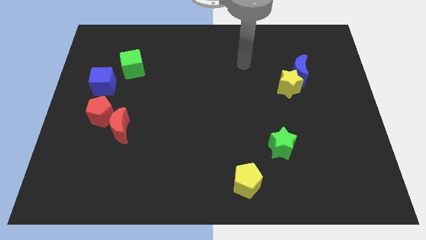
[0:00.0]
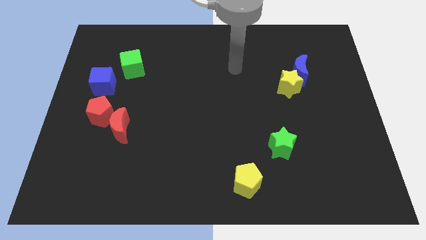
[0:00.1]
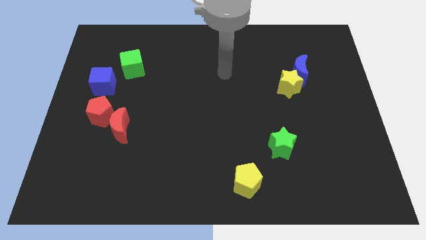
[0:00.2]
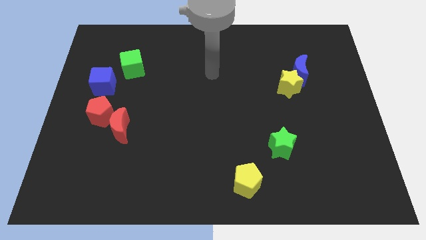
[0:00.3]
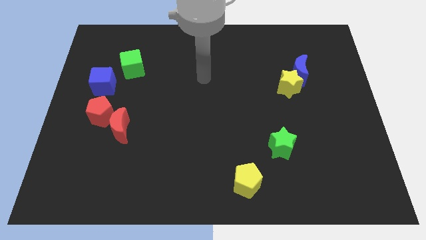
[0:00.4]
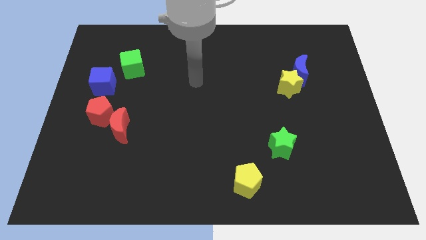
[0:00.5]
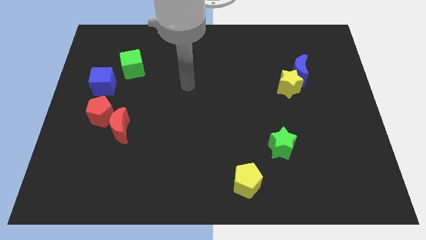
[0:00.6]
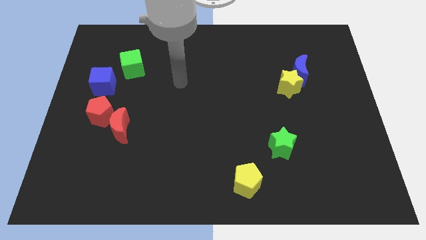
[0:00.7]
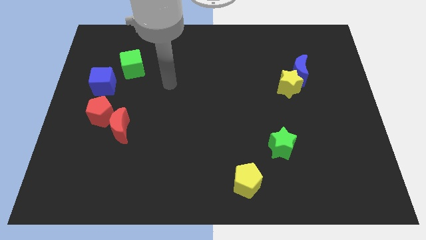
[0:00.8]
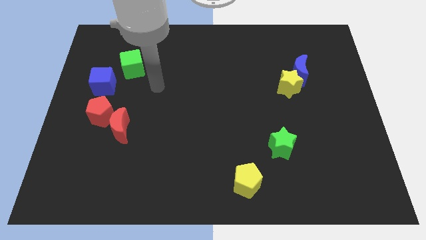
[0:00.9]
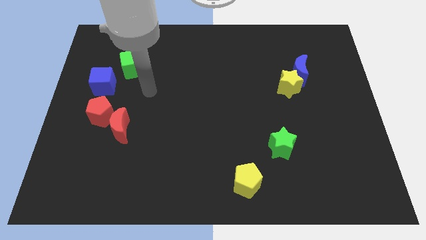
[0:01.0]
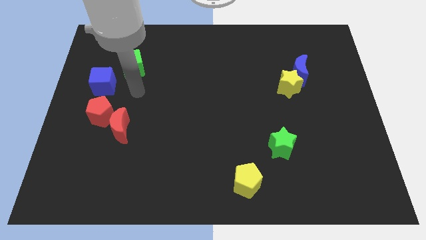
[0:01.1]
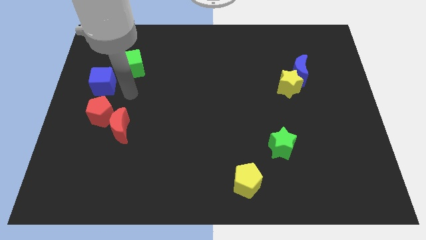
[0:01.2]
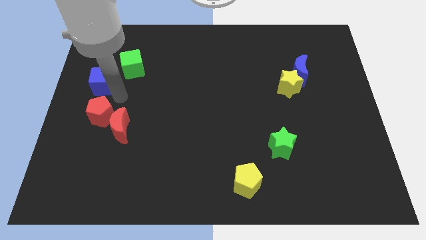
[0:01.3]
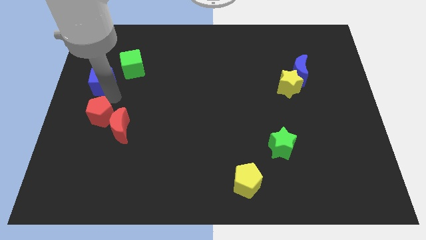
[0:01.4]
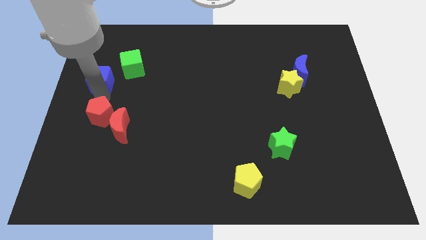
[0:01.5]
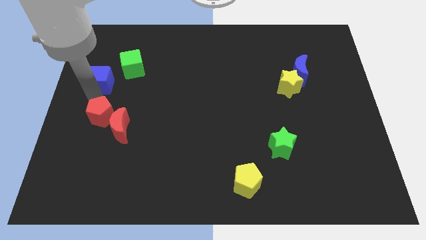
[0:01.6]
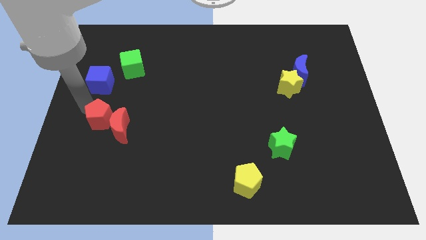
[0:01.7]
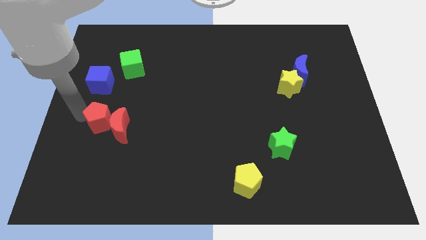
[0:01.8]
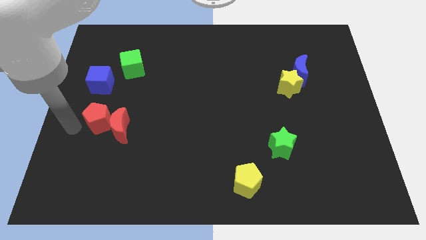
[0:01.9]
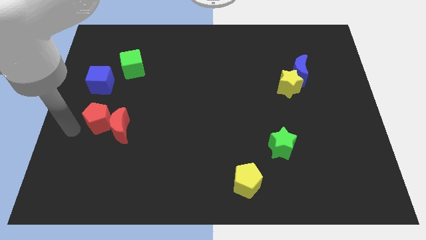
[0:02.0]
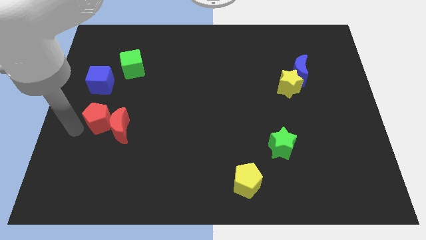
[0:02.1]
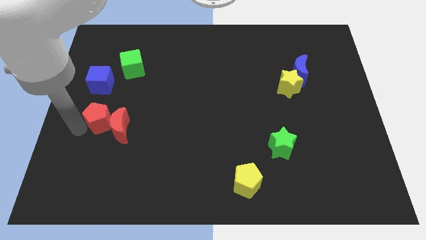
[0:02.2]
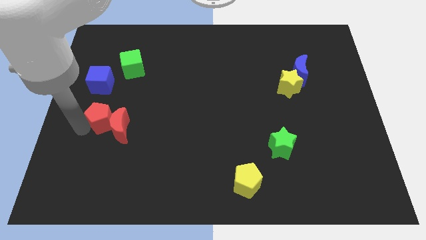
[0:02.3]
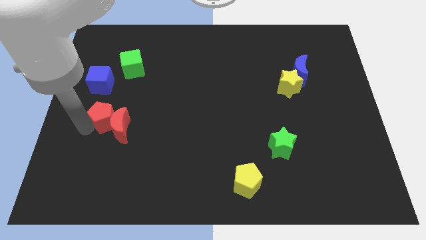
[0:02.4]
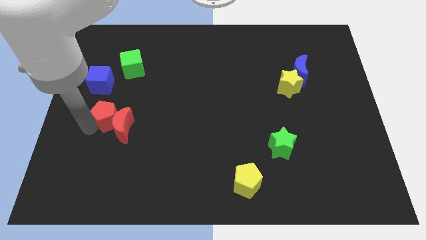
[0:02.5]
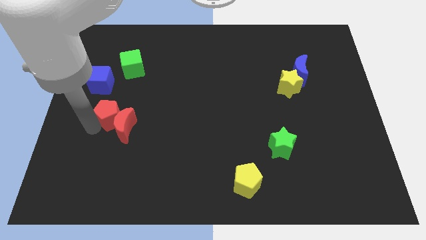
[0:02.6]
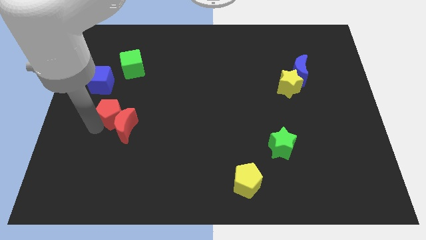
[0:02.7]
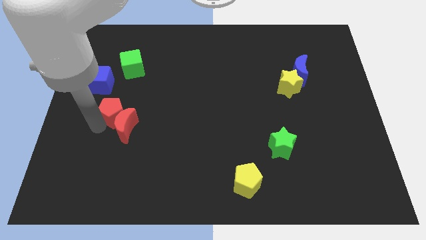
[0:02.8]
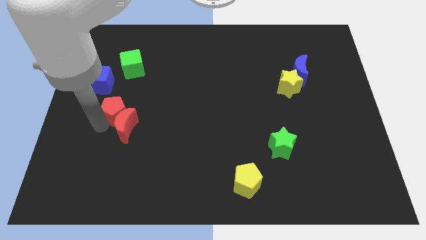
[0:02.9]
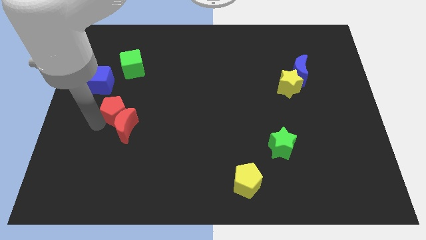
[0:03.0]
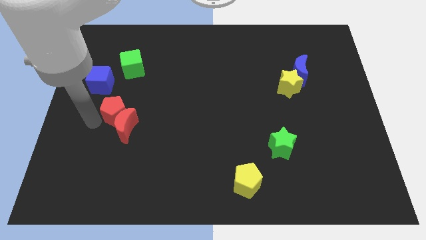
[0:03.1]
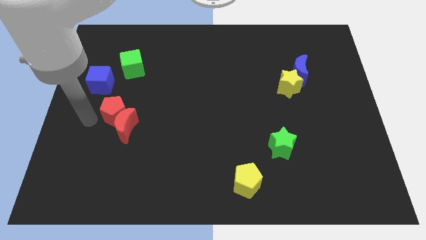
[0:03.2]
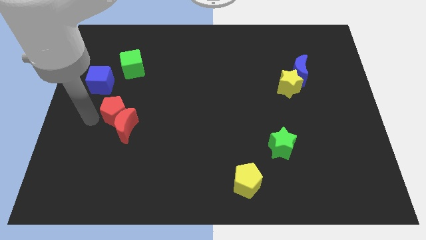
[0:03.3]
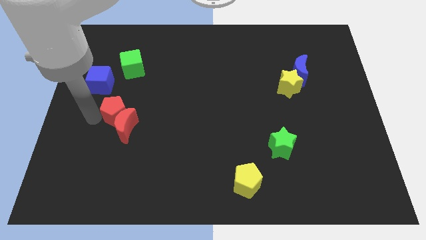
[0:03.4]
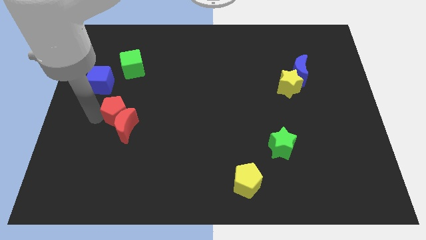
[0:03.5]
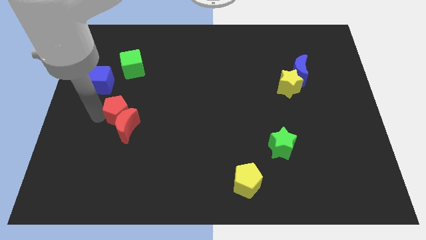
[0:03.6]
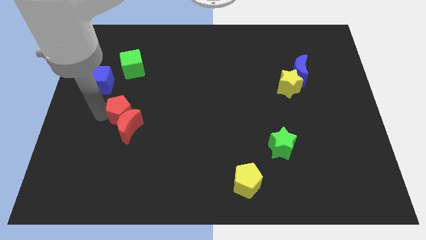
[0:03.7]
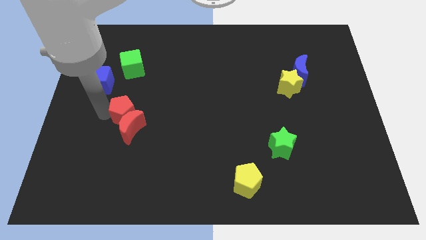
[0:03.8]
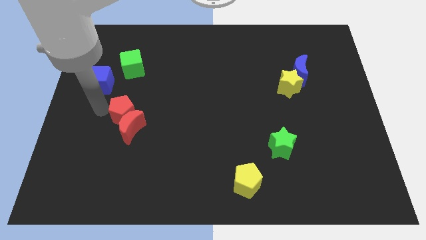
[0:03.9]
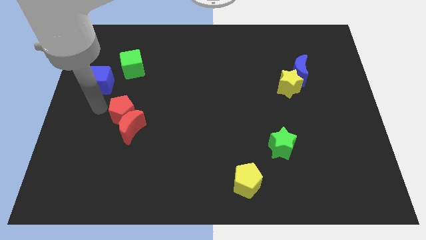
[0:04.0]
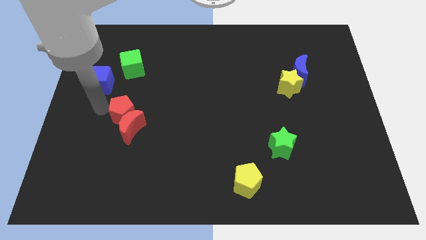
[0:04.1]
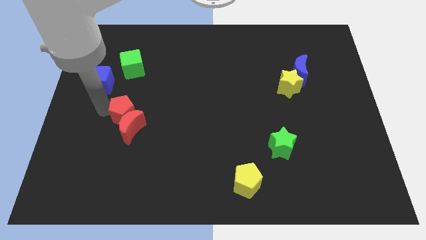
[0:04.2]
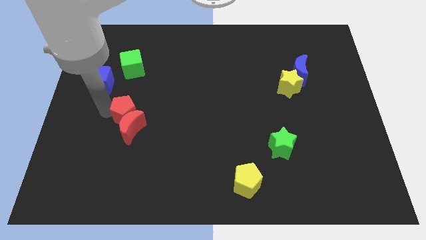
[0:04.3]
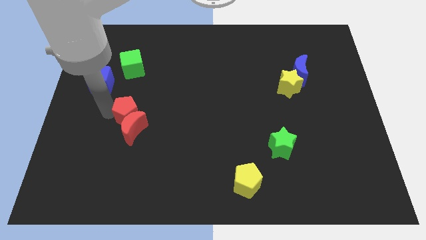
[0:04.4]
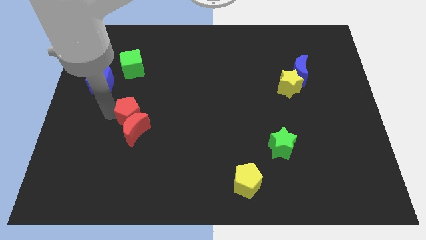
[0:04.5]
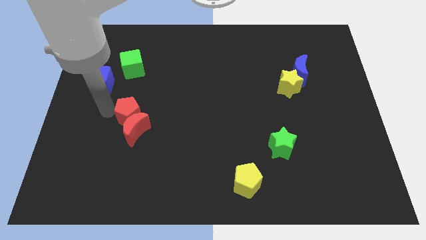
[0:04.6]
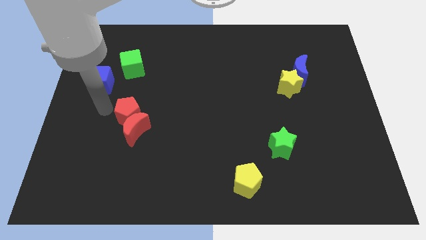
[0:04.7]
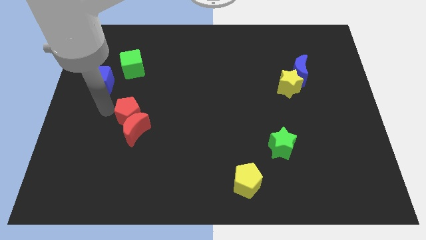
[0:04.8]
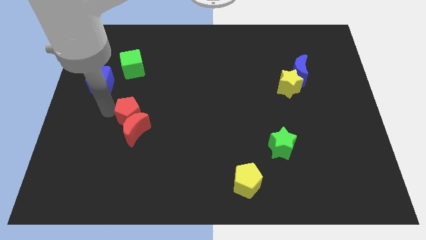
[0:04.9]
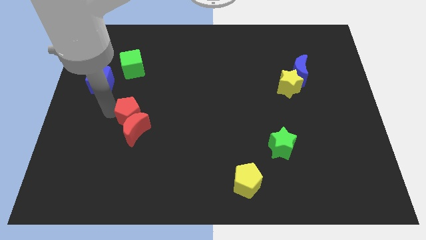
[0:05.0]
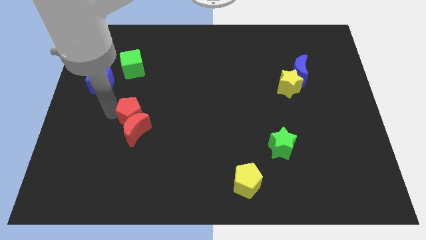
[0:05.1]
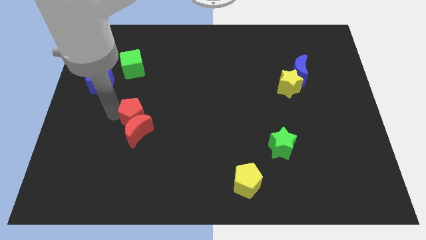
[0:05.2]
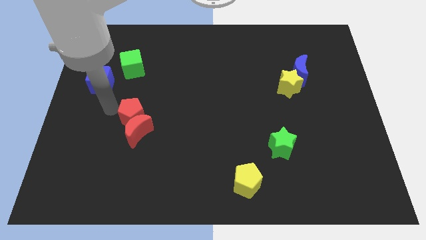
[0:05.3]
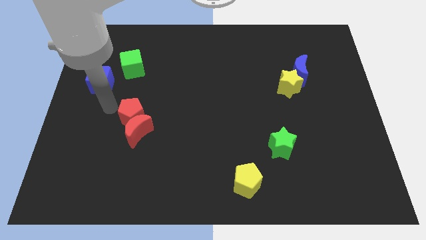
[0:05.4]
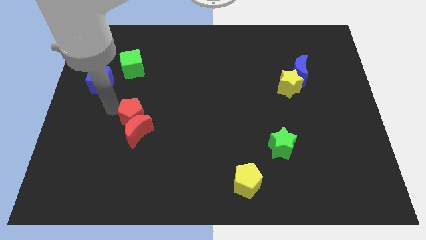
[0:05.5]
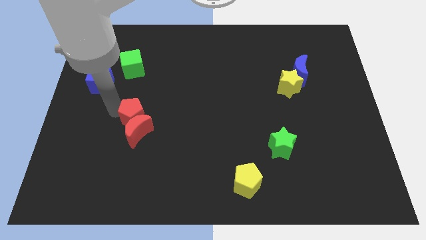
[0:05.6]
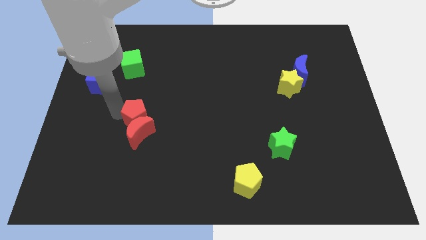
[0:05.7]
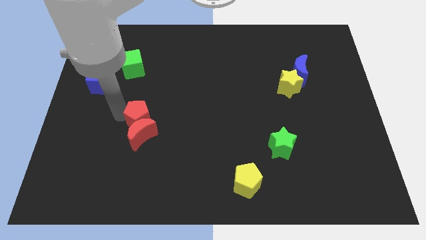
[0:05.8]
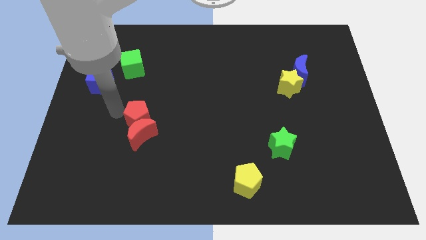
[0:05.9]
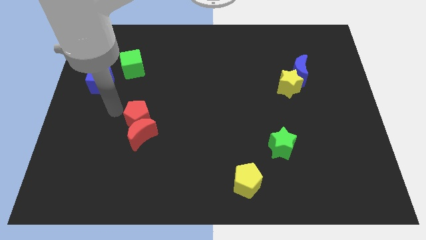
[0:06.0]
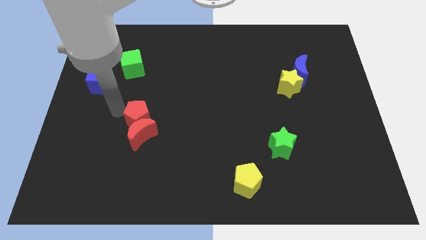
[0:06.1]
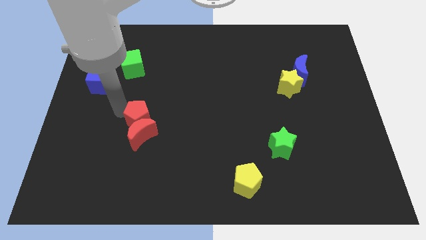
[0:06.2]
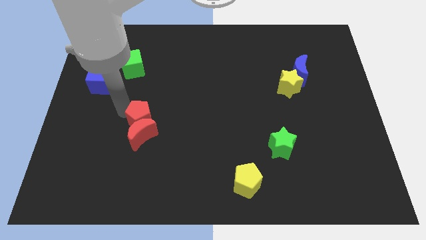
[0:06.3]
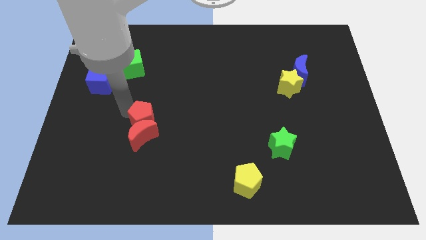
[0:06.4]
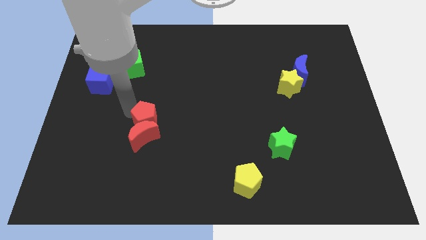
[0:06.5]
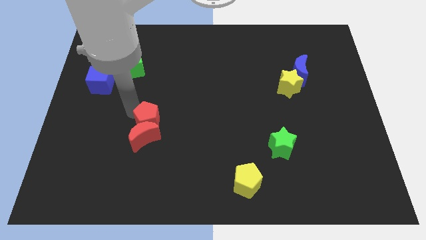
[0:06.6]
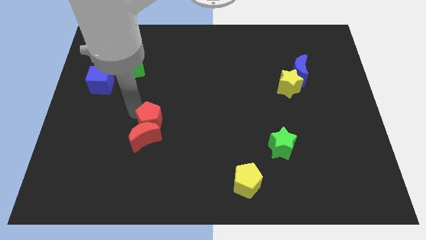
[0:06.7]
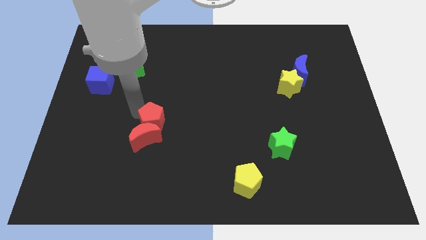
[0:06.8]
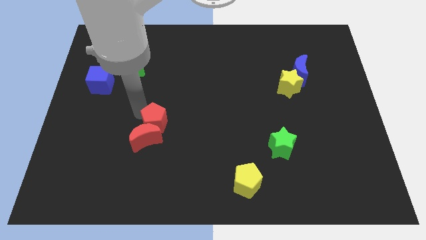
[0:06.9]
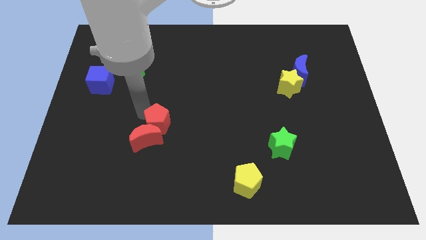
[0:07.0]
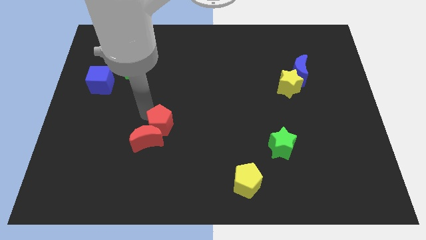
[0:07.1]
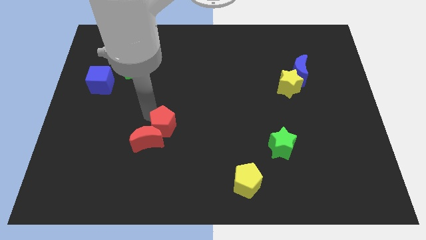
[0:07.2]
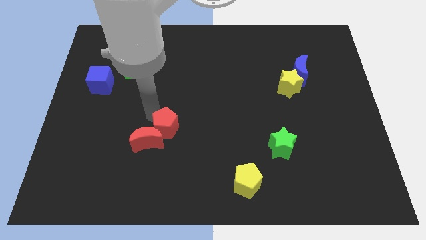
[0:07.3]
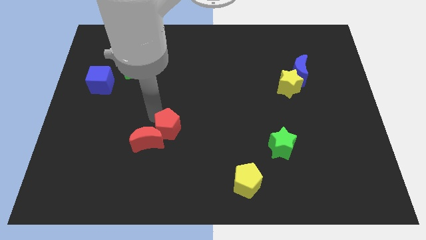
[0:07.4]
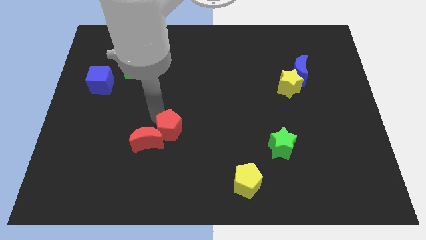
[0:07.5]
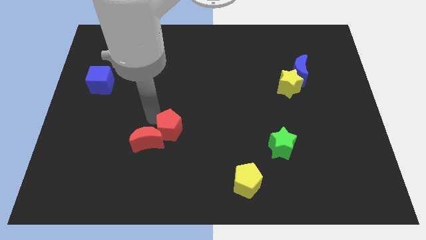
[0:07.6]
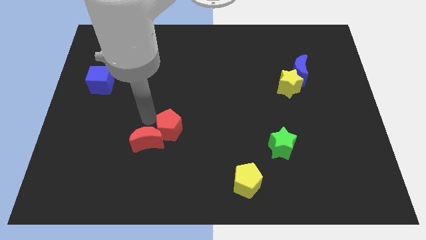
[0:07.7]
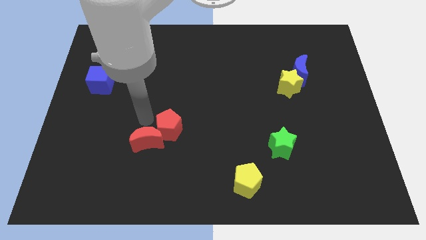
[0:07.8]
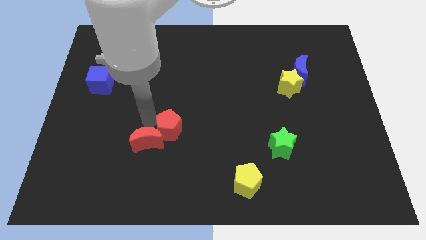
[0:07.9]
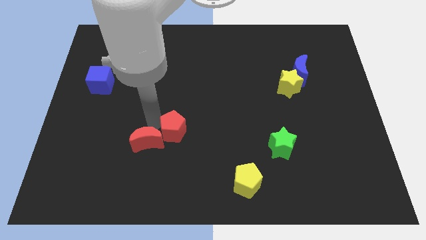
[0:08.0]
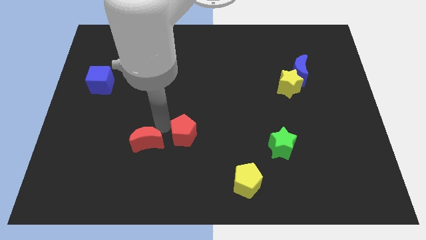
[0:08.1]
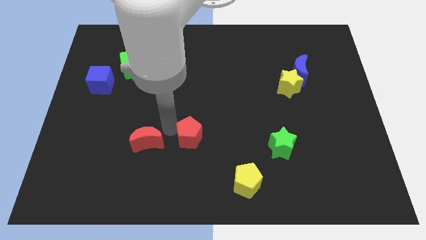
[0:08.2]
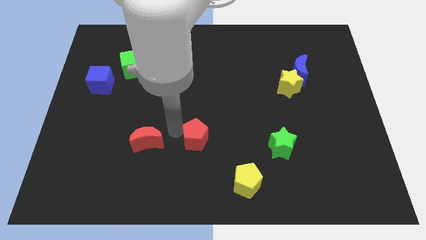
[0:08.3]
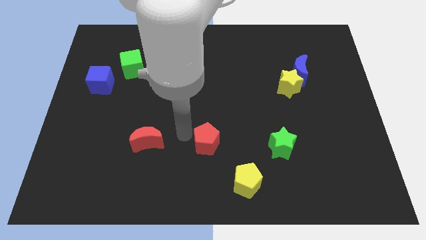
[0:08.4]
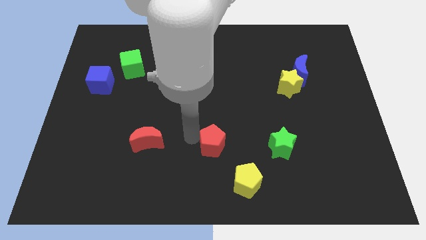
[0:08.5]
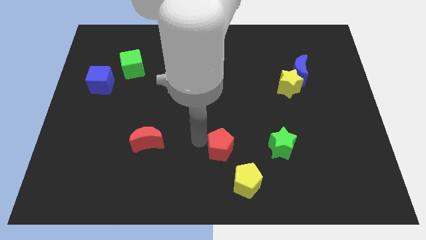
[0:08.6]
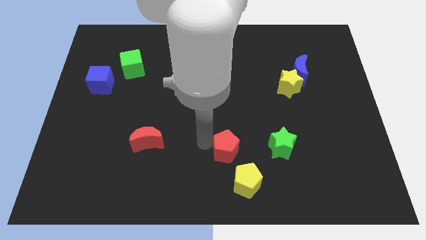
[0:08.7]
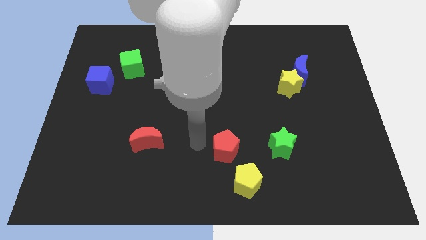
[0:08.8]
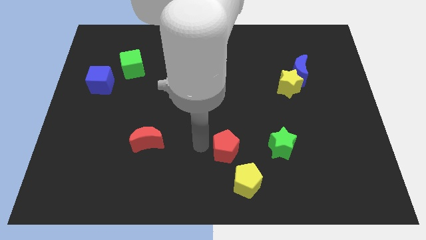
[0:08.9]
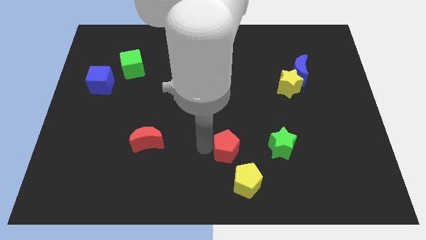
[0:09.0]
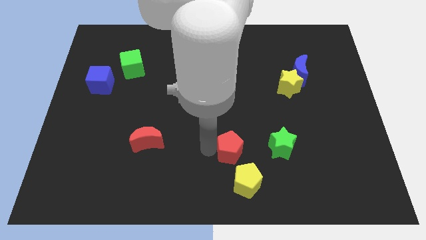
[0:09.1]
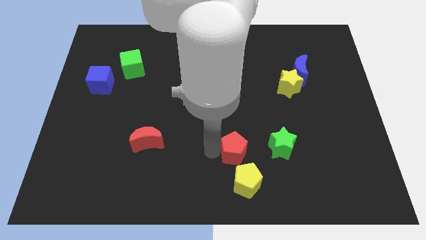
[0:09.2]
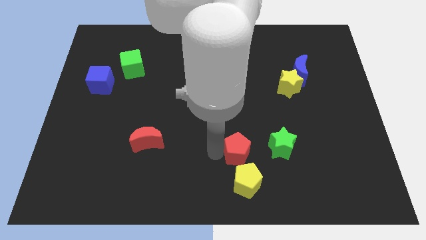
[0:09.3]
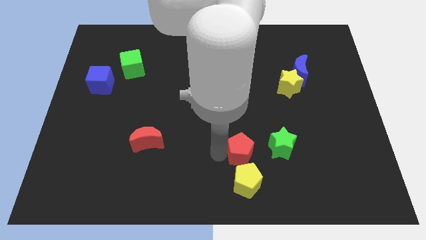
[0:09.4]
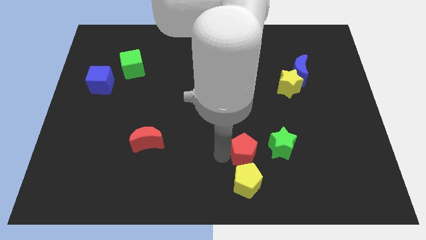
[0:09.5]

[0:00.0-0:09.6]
slide the red pentagon diagonally up and to the right of the yellow pentagon
